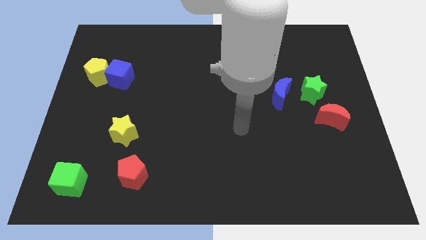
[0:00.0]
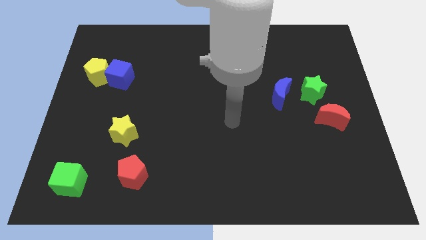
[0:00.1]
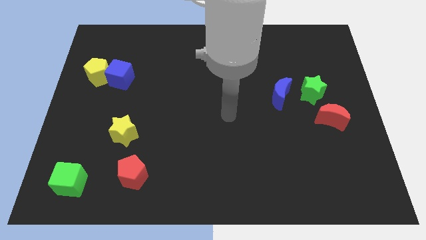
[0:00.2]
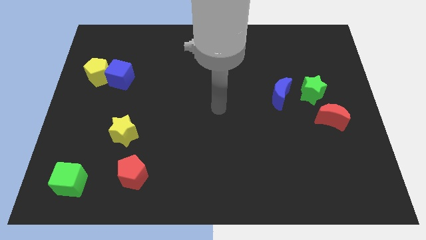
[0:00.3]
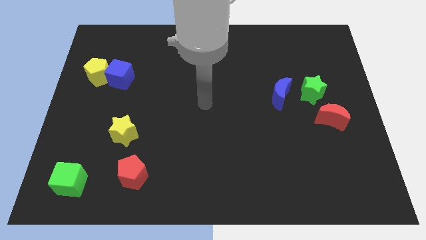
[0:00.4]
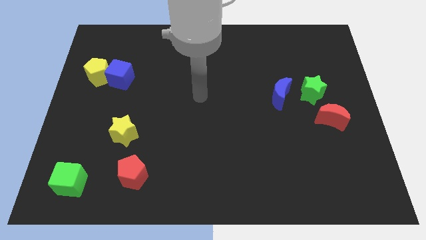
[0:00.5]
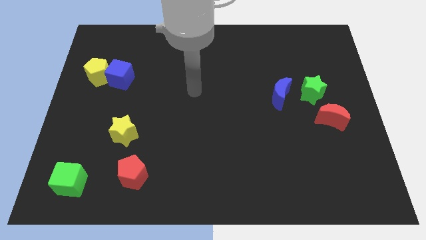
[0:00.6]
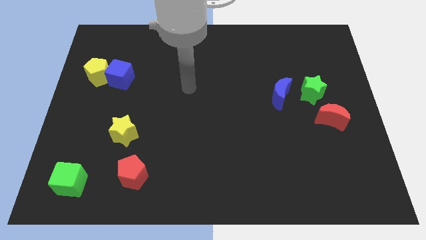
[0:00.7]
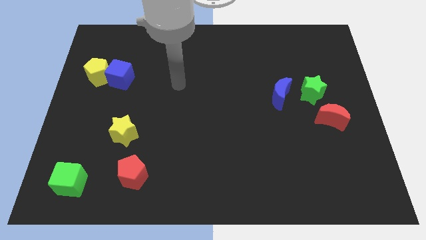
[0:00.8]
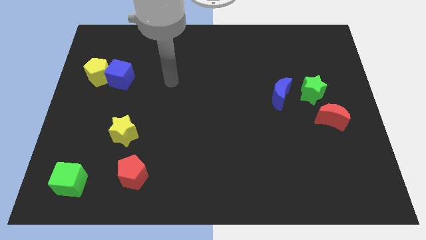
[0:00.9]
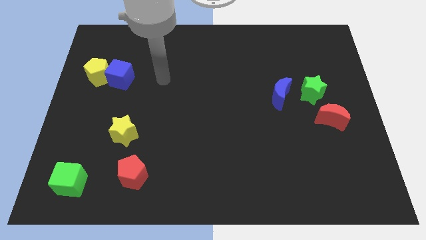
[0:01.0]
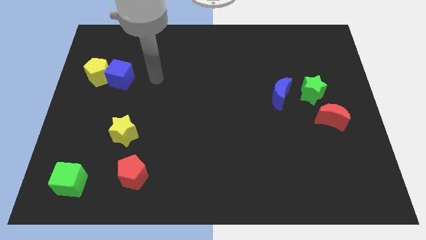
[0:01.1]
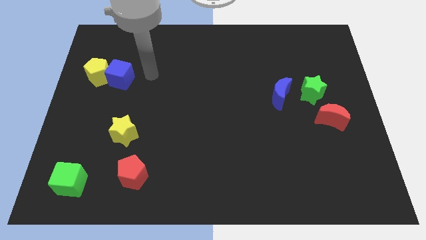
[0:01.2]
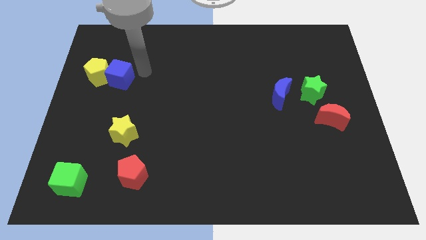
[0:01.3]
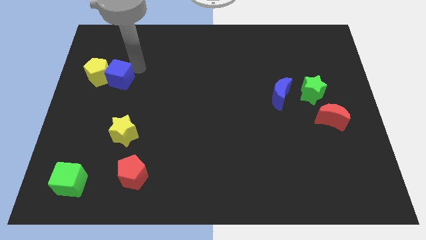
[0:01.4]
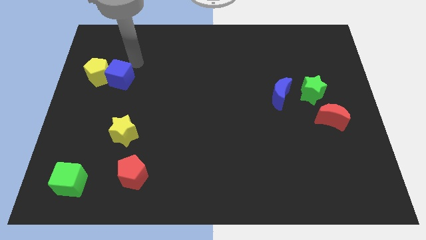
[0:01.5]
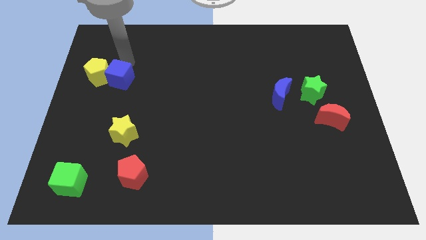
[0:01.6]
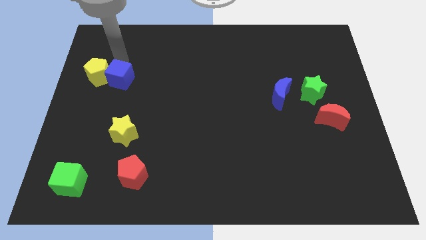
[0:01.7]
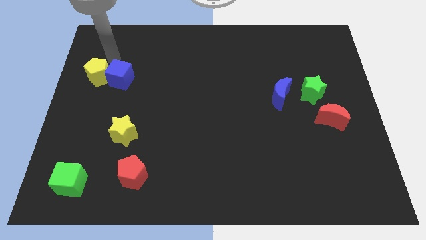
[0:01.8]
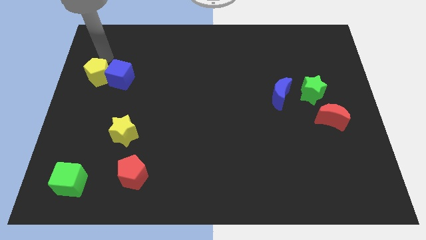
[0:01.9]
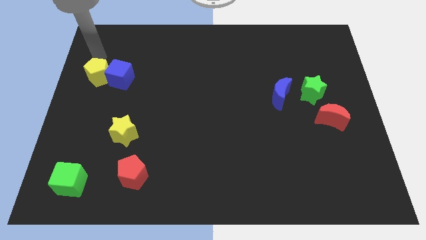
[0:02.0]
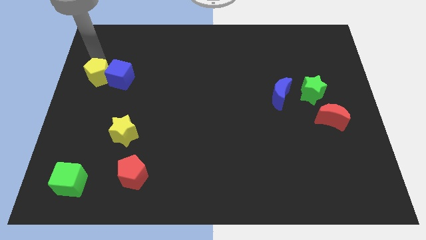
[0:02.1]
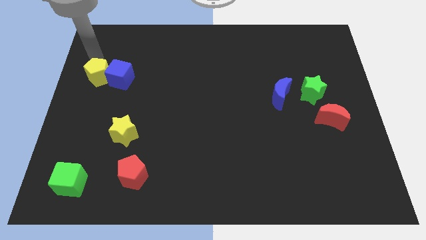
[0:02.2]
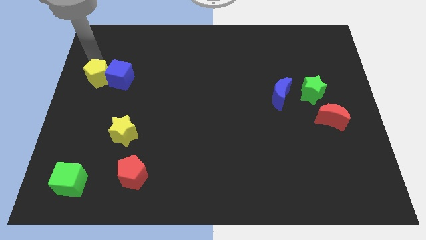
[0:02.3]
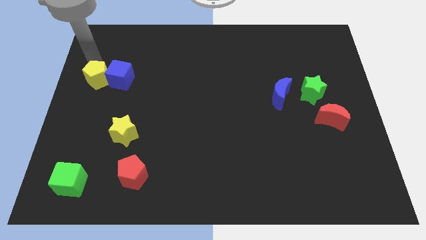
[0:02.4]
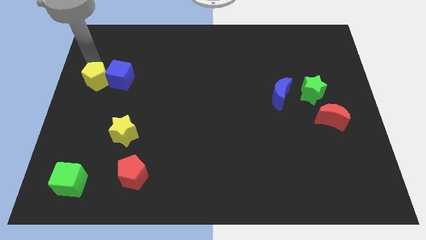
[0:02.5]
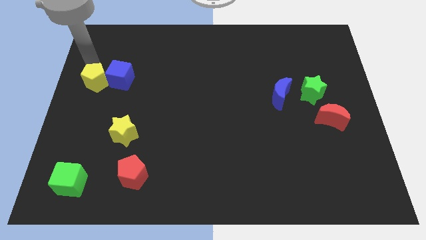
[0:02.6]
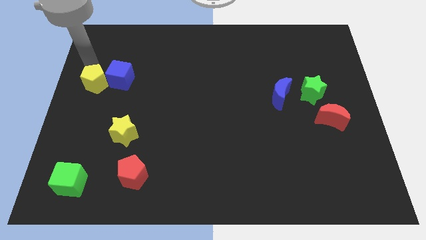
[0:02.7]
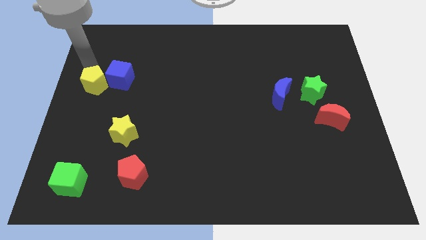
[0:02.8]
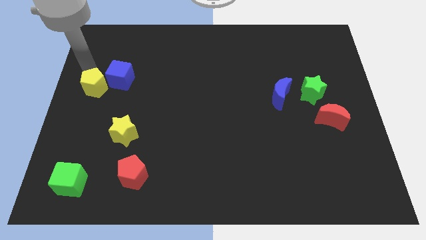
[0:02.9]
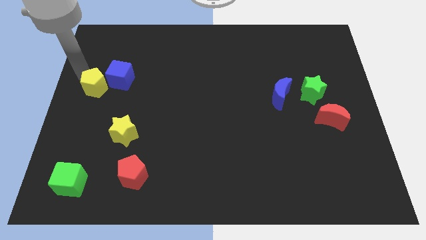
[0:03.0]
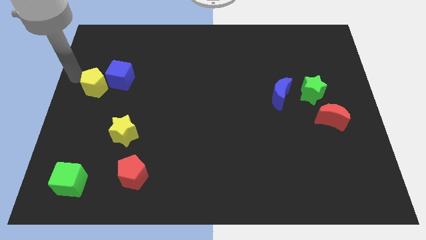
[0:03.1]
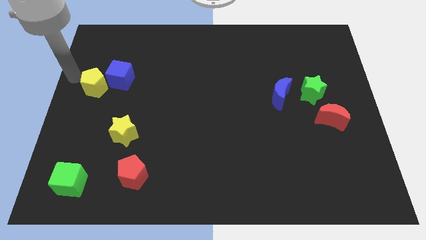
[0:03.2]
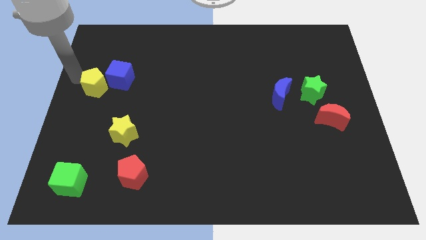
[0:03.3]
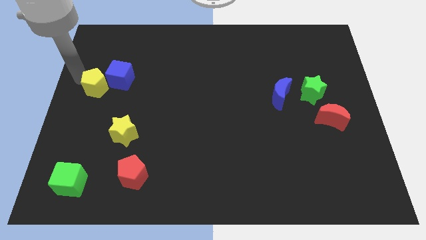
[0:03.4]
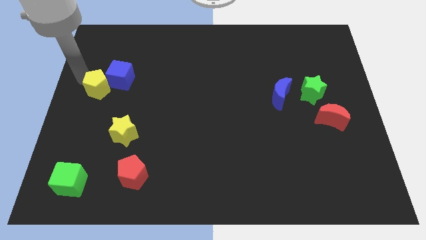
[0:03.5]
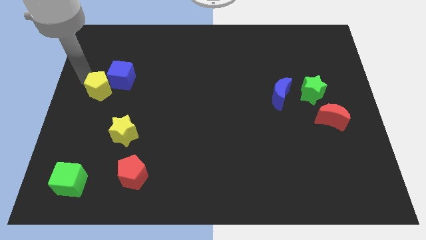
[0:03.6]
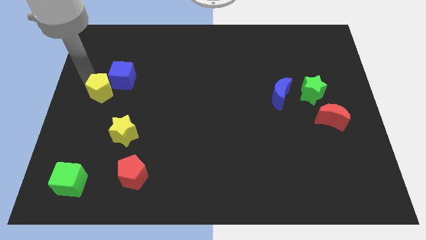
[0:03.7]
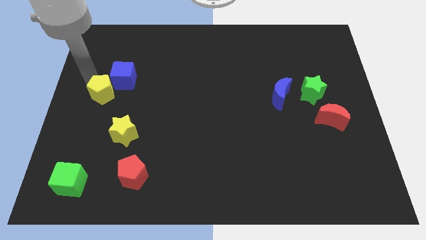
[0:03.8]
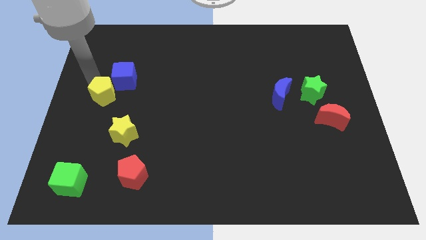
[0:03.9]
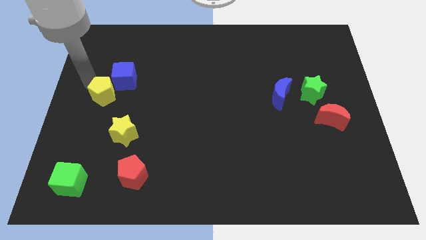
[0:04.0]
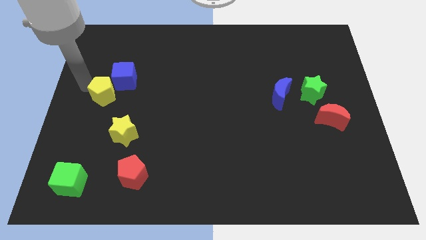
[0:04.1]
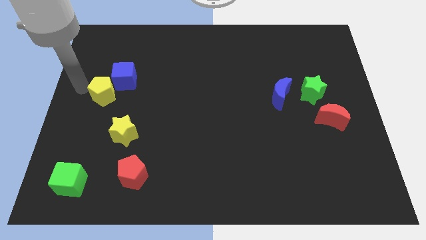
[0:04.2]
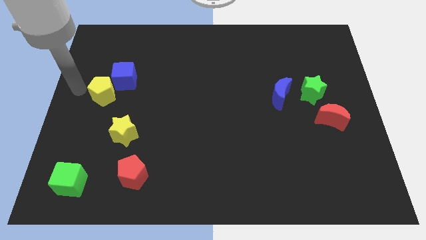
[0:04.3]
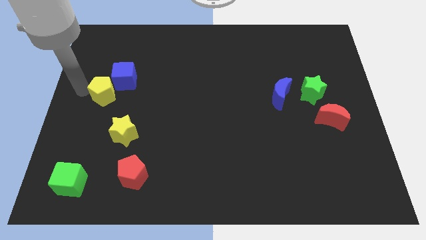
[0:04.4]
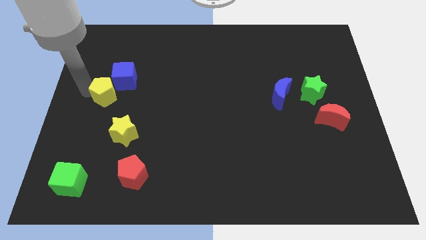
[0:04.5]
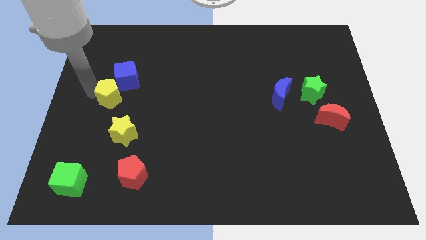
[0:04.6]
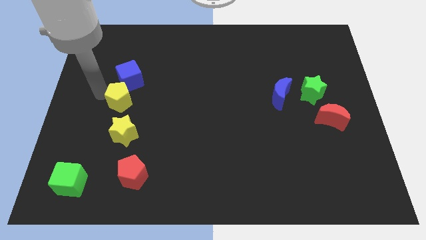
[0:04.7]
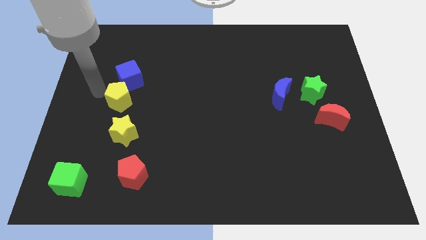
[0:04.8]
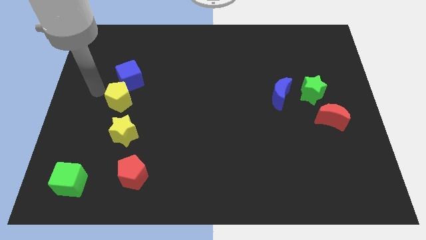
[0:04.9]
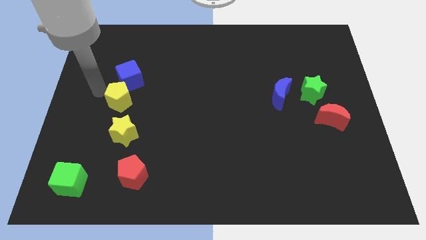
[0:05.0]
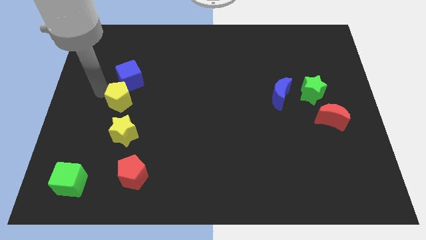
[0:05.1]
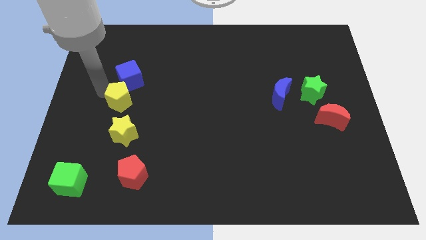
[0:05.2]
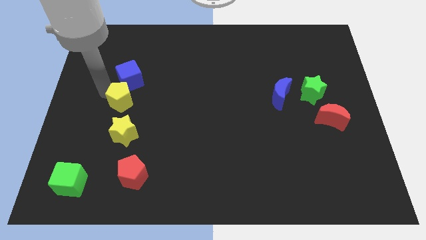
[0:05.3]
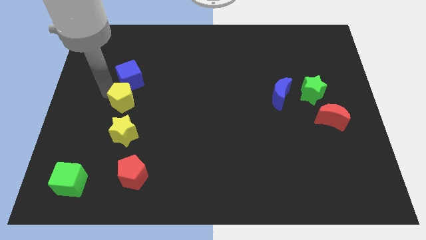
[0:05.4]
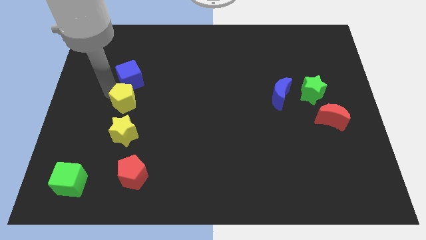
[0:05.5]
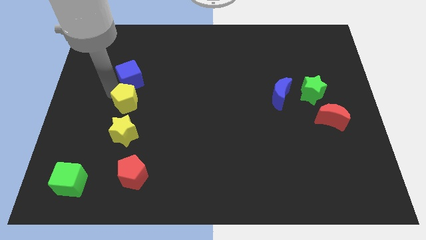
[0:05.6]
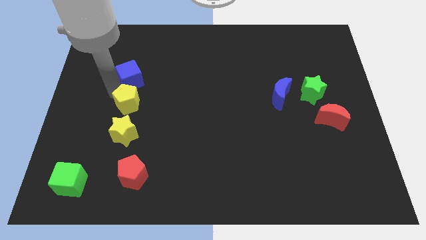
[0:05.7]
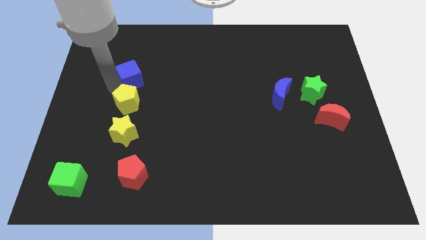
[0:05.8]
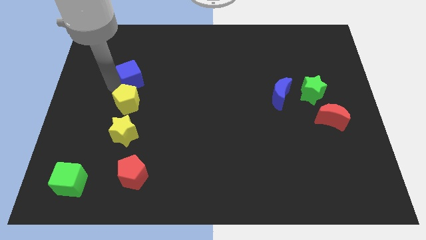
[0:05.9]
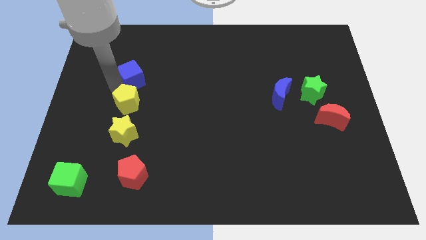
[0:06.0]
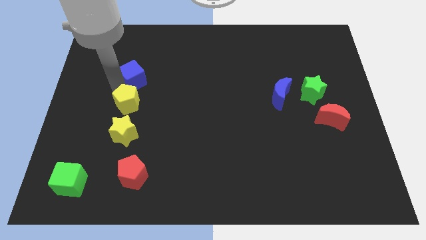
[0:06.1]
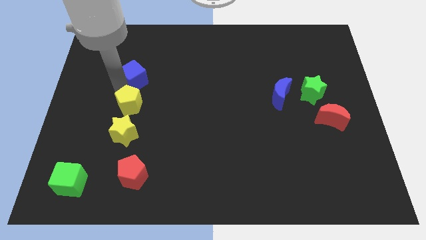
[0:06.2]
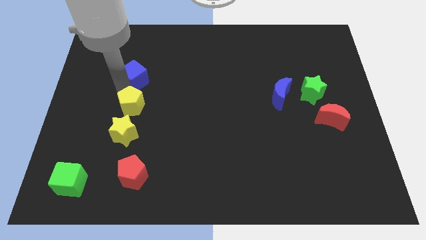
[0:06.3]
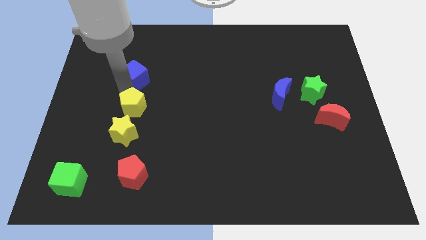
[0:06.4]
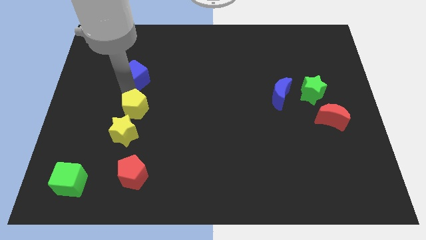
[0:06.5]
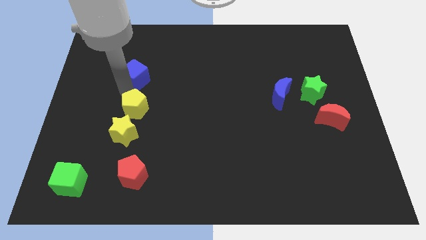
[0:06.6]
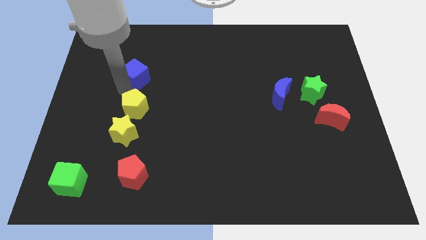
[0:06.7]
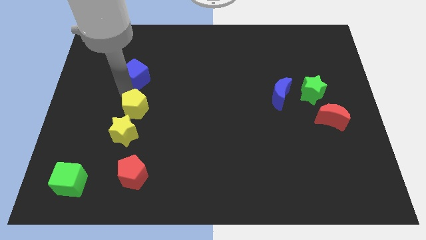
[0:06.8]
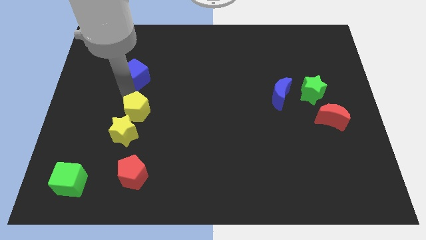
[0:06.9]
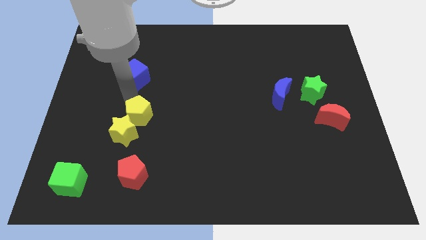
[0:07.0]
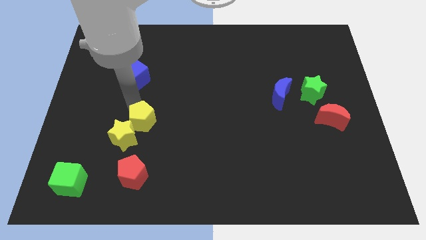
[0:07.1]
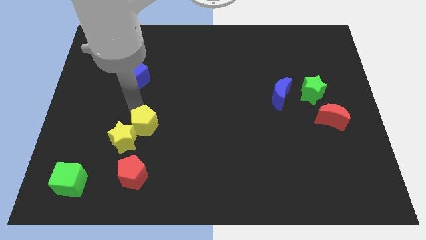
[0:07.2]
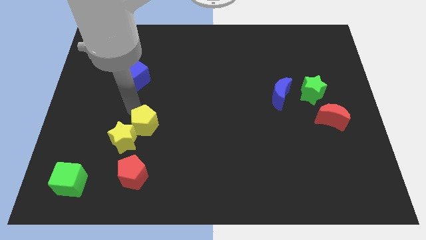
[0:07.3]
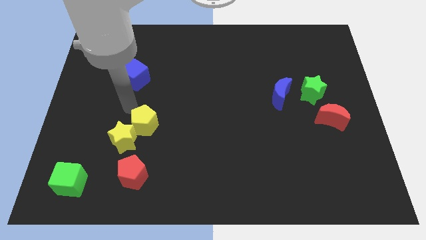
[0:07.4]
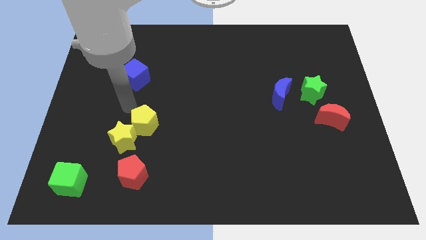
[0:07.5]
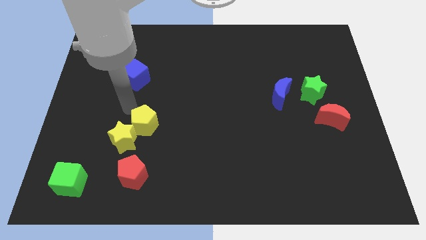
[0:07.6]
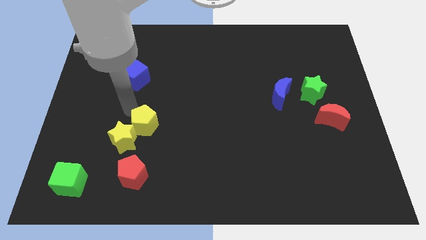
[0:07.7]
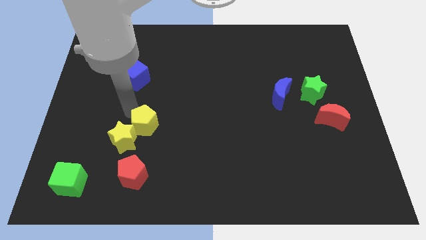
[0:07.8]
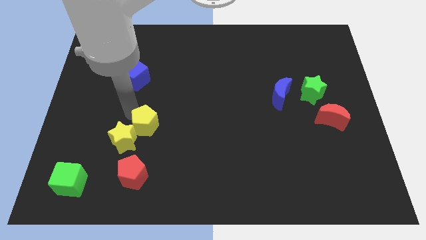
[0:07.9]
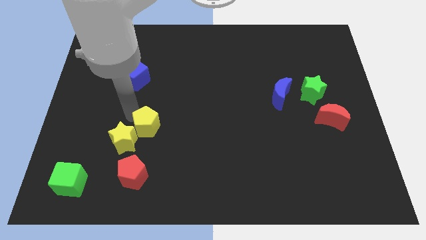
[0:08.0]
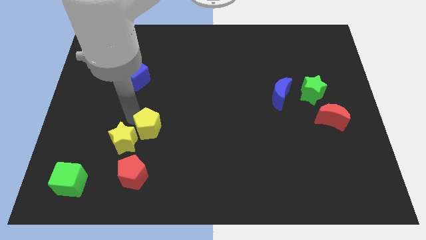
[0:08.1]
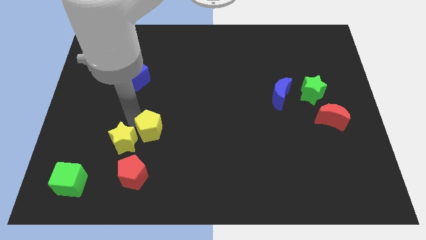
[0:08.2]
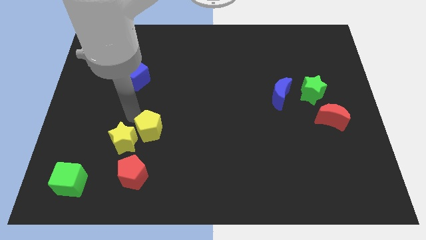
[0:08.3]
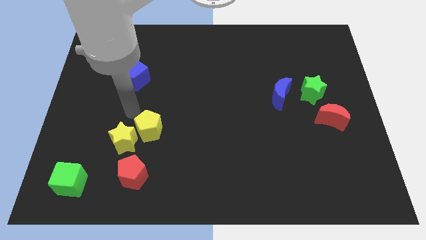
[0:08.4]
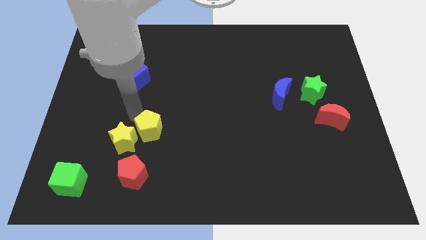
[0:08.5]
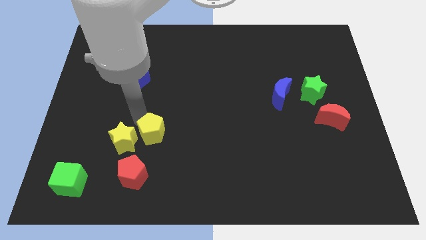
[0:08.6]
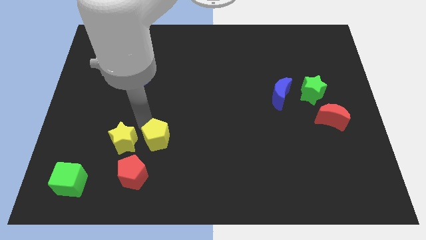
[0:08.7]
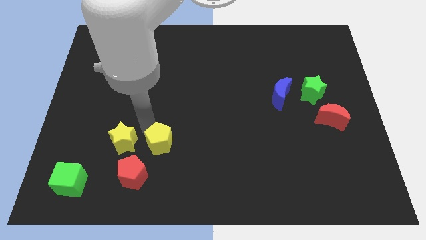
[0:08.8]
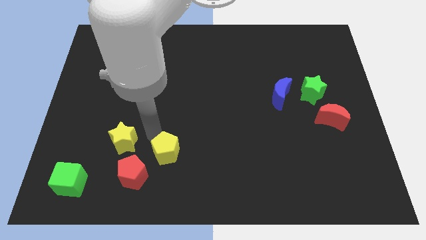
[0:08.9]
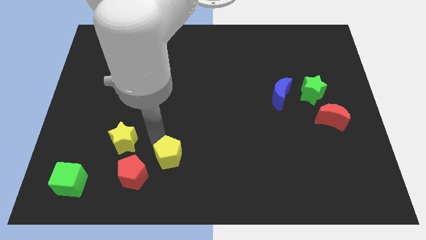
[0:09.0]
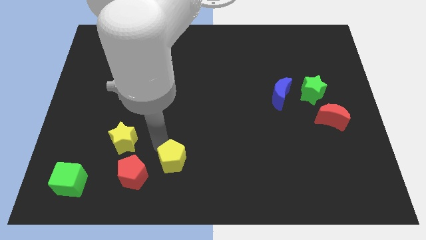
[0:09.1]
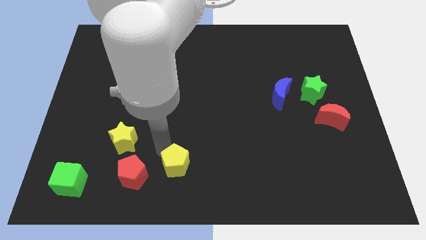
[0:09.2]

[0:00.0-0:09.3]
push the yellow pentagon to the bottom
